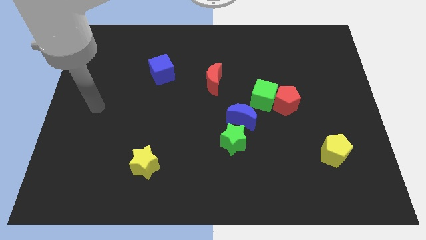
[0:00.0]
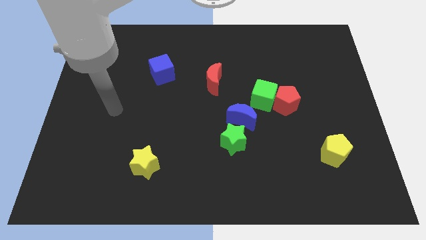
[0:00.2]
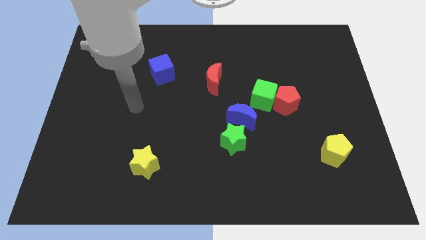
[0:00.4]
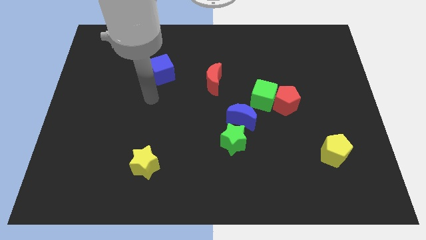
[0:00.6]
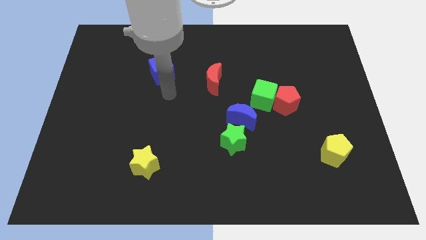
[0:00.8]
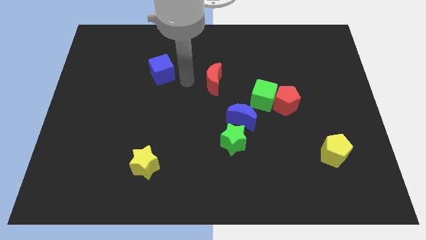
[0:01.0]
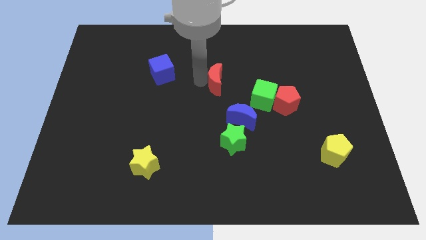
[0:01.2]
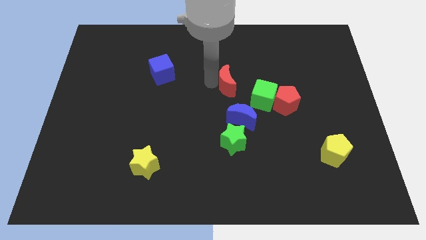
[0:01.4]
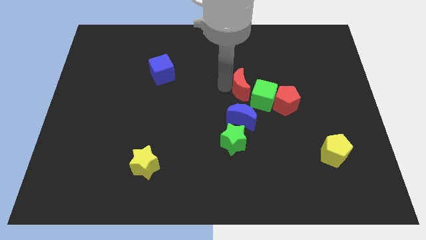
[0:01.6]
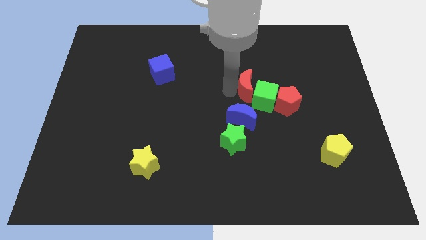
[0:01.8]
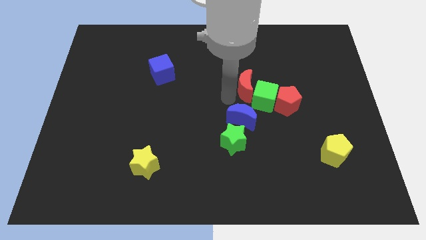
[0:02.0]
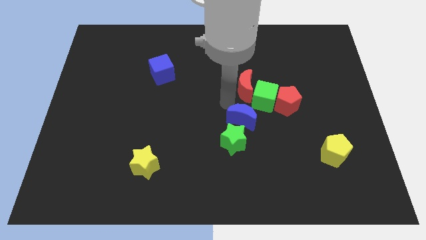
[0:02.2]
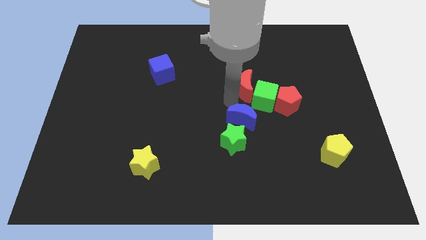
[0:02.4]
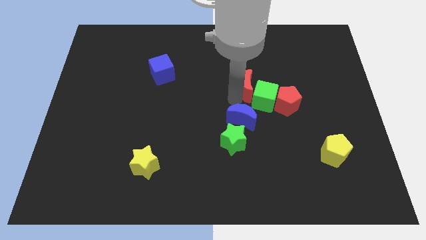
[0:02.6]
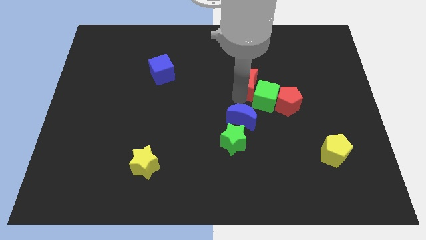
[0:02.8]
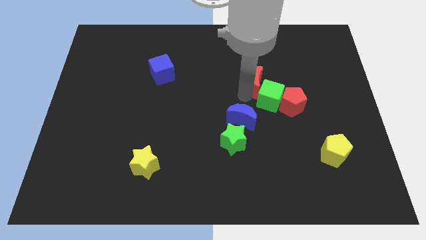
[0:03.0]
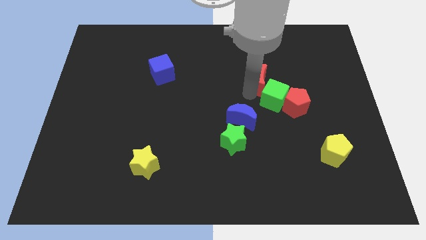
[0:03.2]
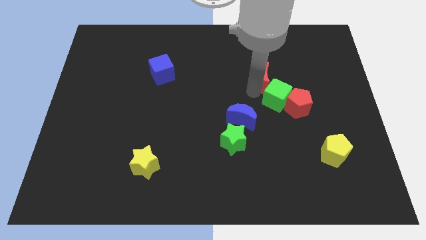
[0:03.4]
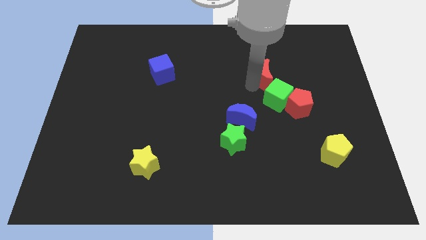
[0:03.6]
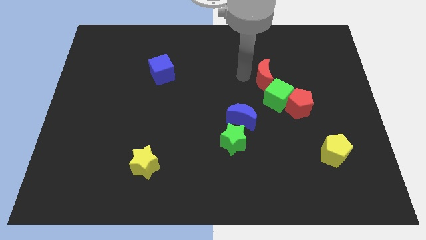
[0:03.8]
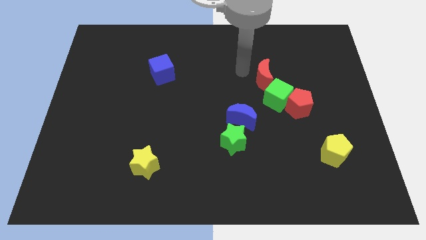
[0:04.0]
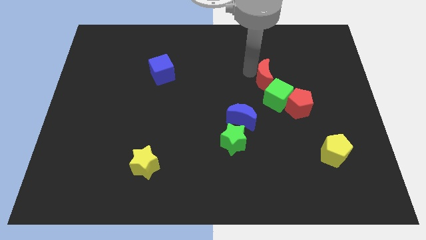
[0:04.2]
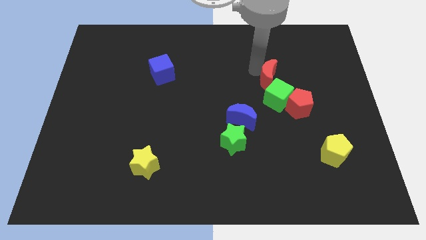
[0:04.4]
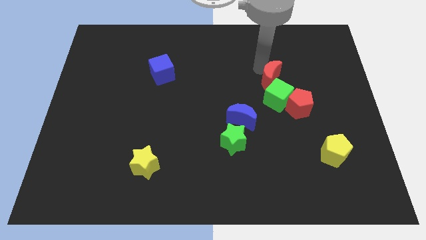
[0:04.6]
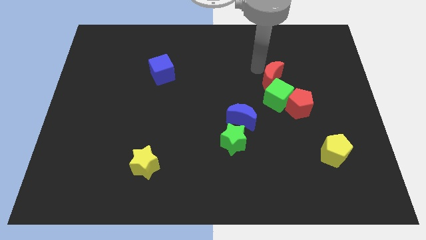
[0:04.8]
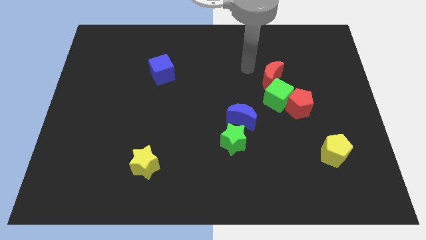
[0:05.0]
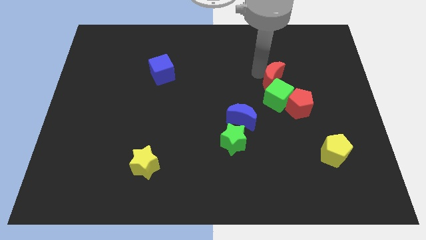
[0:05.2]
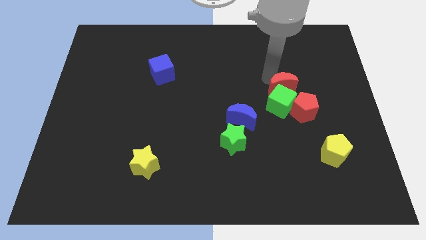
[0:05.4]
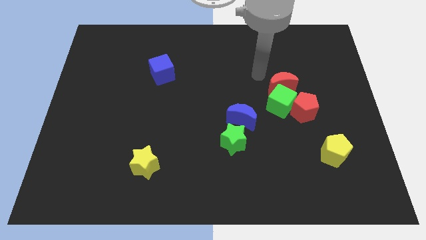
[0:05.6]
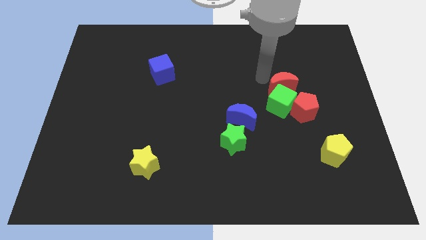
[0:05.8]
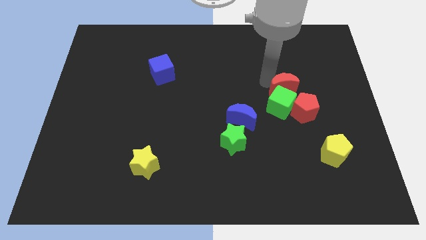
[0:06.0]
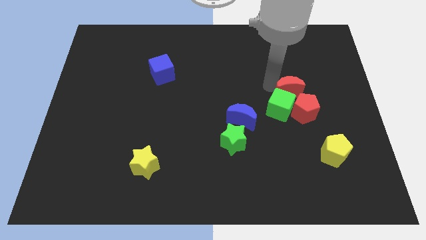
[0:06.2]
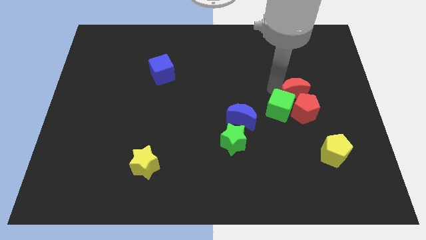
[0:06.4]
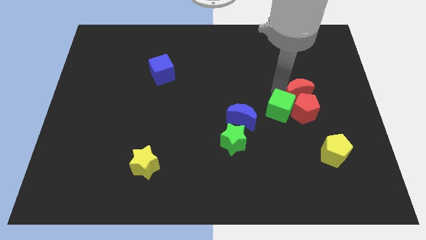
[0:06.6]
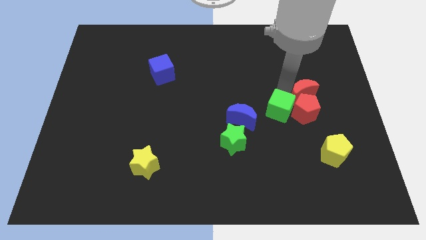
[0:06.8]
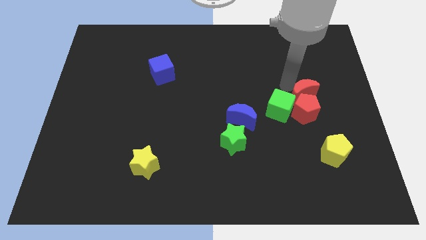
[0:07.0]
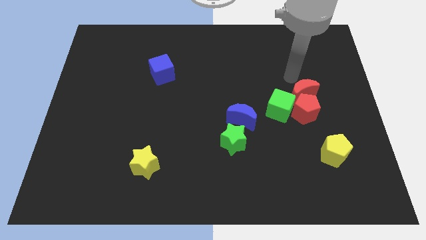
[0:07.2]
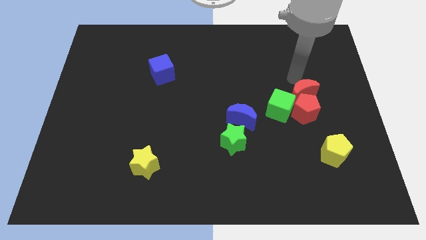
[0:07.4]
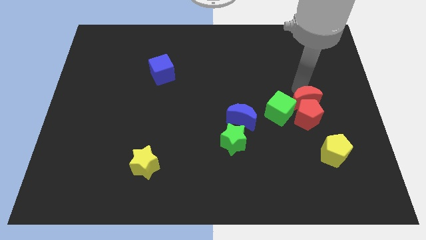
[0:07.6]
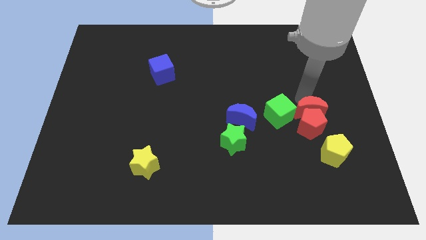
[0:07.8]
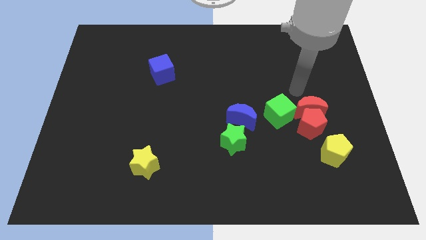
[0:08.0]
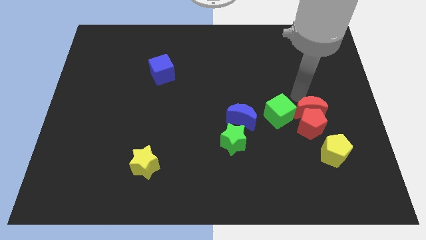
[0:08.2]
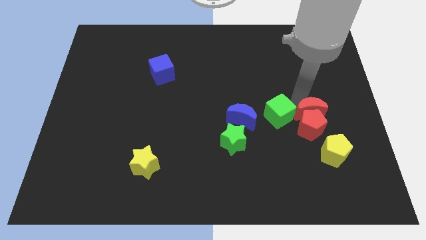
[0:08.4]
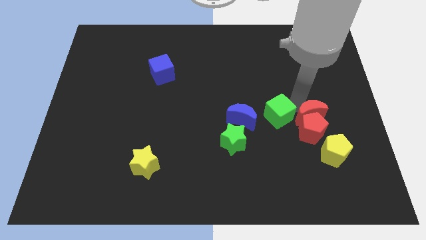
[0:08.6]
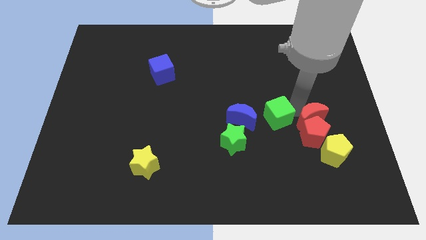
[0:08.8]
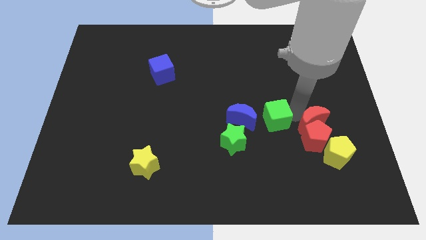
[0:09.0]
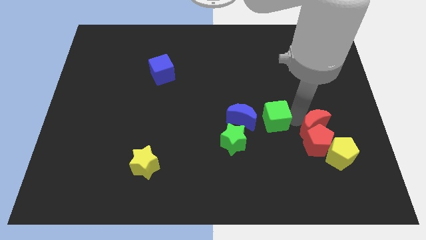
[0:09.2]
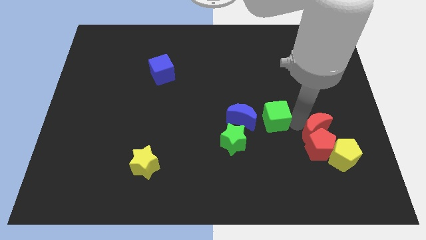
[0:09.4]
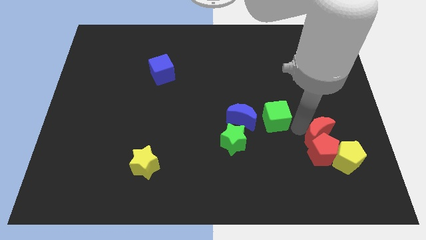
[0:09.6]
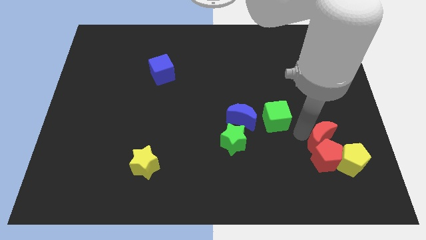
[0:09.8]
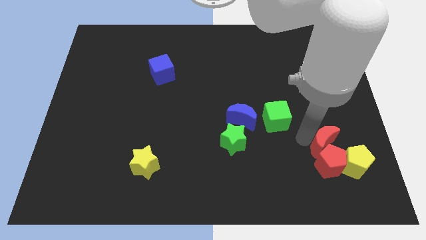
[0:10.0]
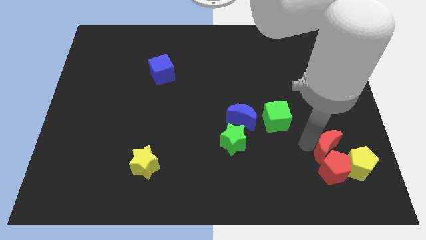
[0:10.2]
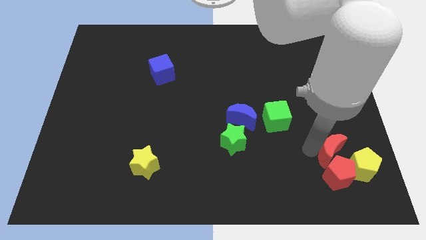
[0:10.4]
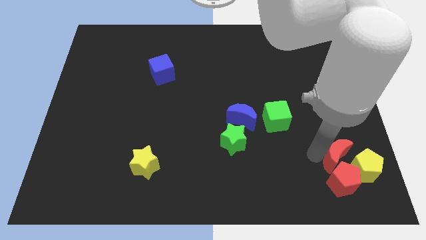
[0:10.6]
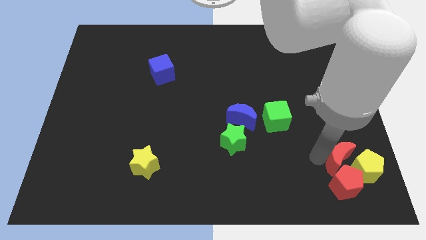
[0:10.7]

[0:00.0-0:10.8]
put the red moon towards the yellow pentagon

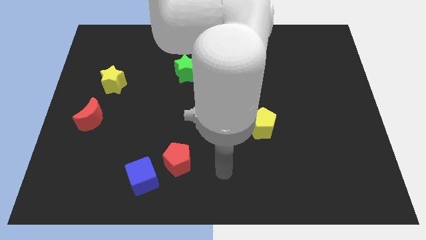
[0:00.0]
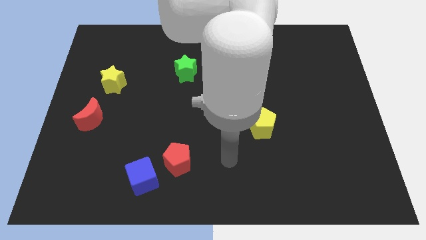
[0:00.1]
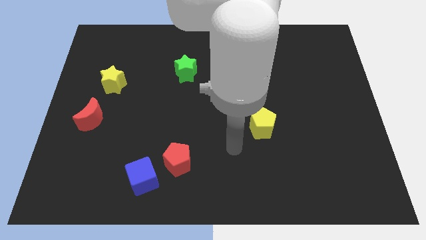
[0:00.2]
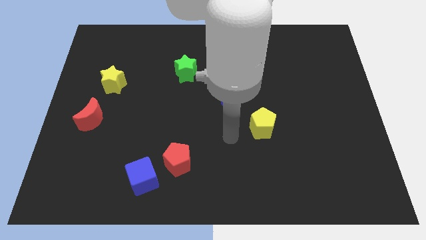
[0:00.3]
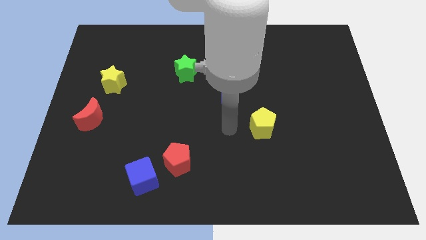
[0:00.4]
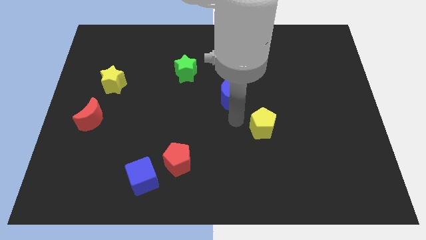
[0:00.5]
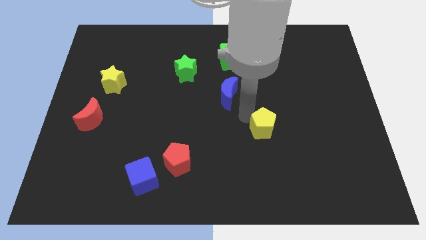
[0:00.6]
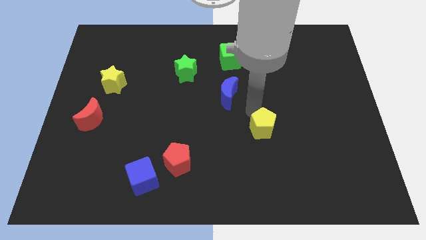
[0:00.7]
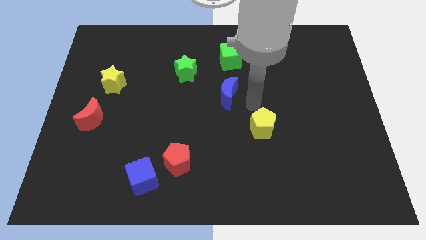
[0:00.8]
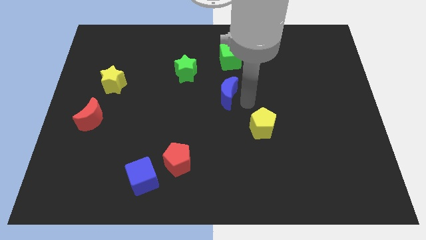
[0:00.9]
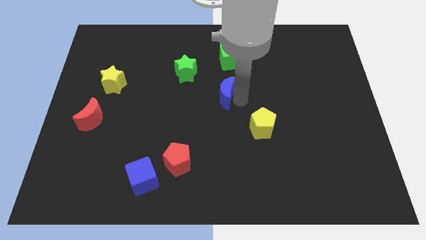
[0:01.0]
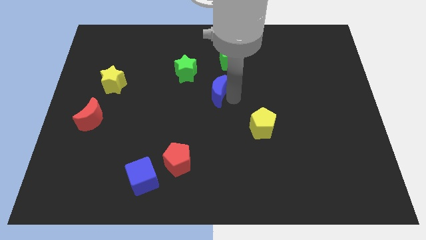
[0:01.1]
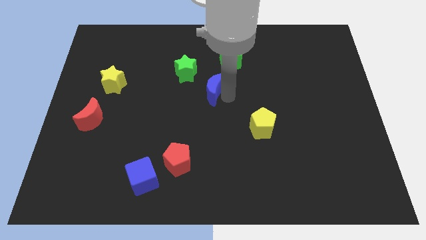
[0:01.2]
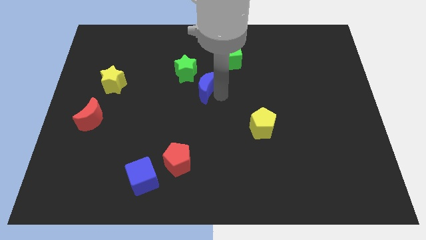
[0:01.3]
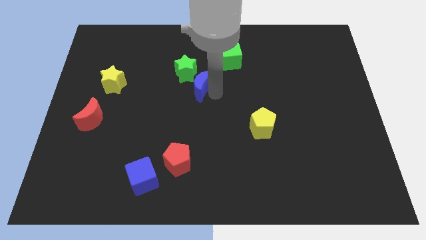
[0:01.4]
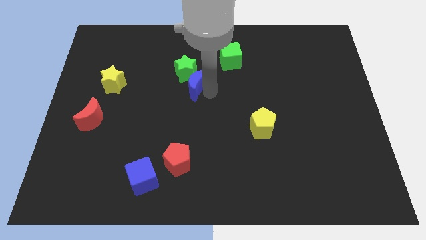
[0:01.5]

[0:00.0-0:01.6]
put the blue moon next to the green star
